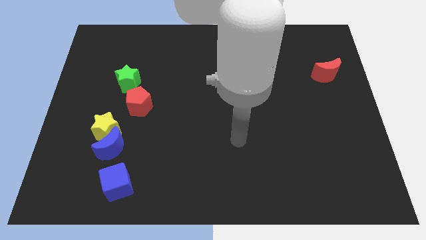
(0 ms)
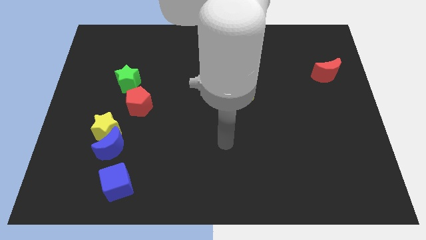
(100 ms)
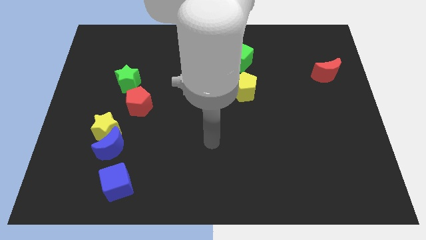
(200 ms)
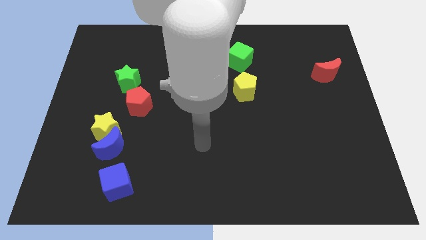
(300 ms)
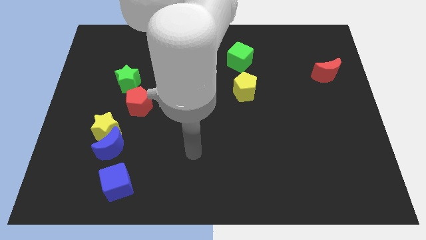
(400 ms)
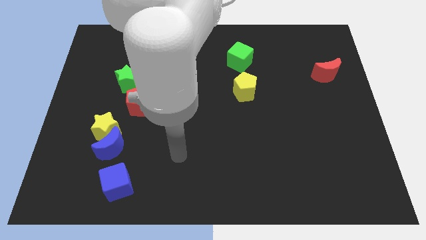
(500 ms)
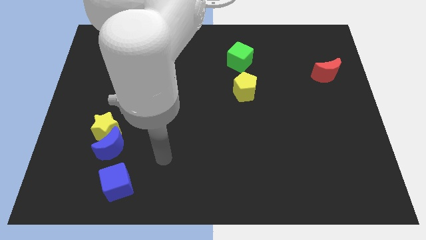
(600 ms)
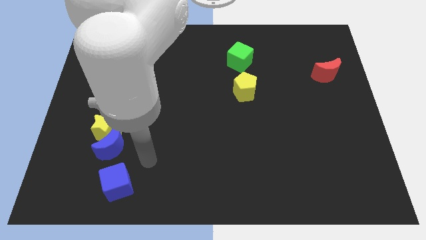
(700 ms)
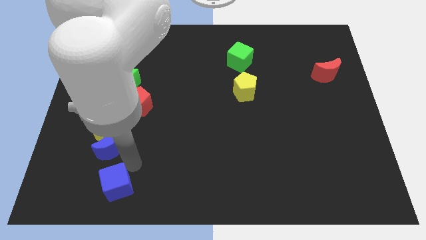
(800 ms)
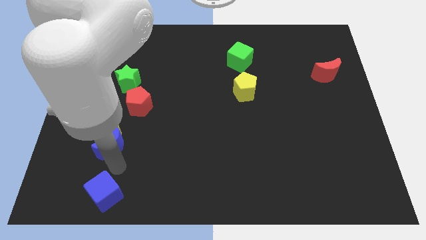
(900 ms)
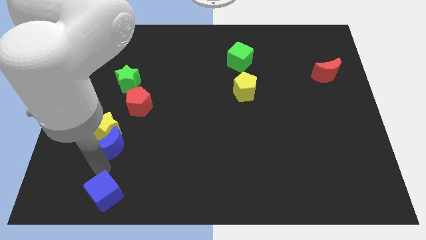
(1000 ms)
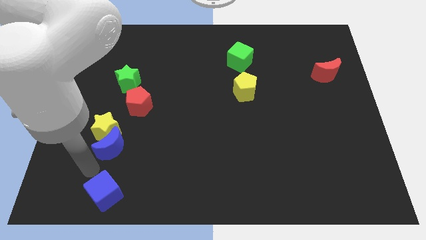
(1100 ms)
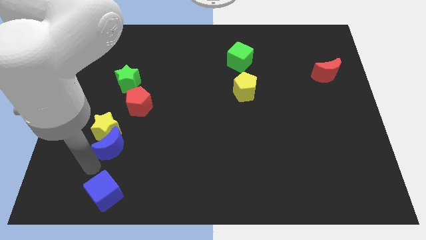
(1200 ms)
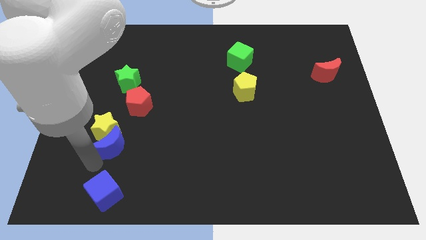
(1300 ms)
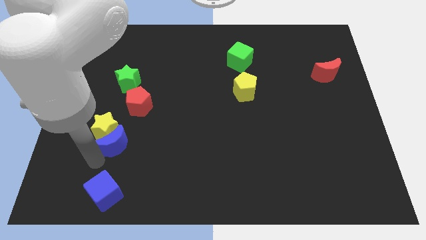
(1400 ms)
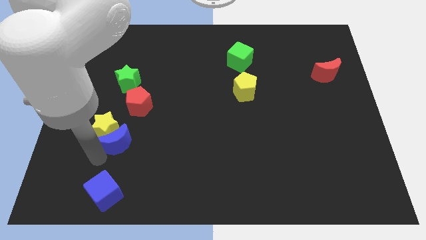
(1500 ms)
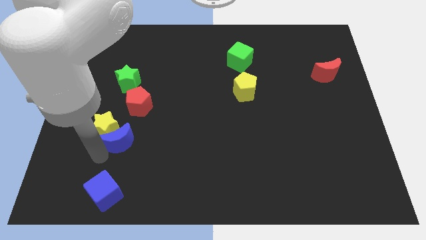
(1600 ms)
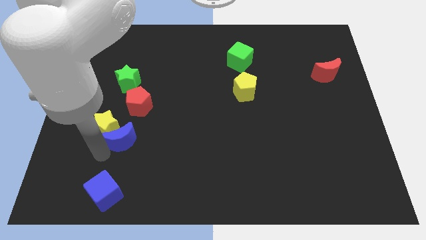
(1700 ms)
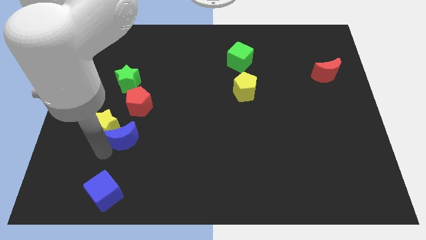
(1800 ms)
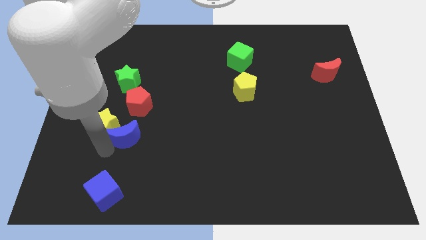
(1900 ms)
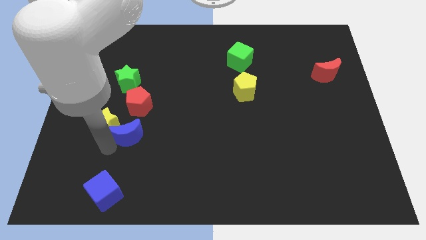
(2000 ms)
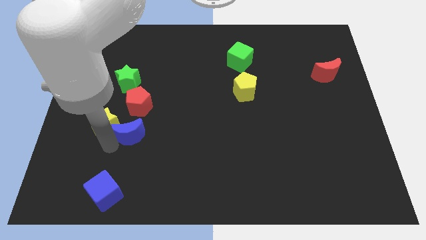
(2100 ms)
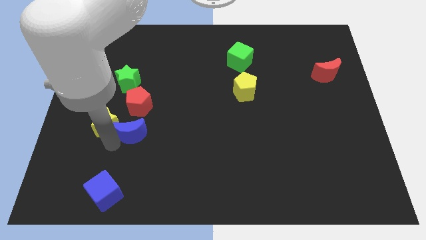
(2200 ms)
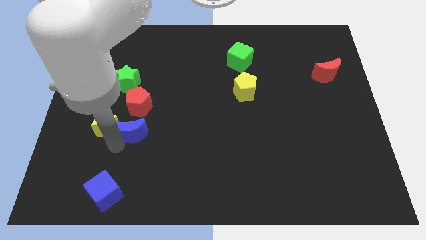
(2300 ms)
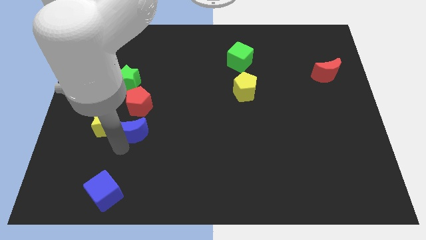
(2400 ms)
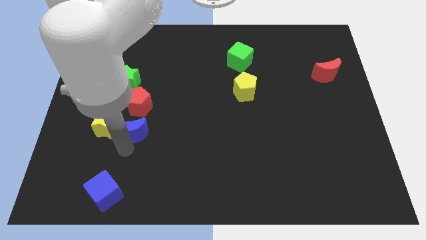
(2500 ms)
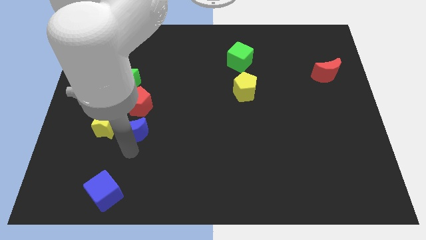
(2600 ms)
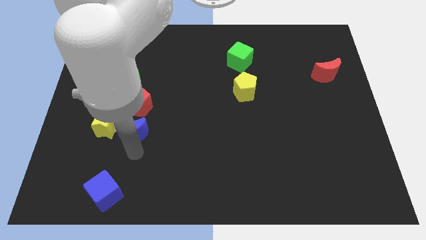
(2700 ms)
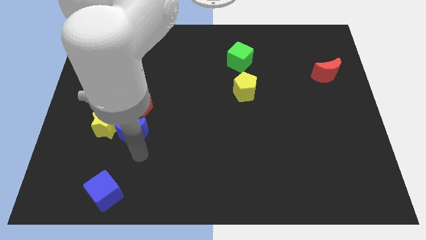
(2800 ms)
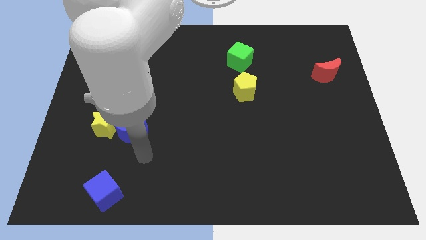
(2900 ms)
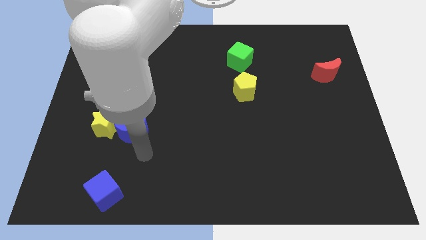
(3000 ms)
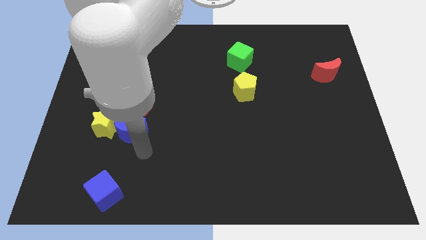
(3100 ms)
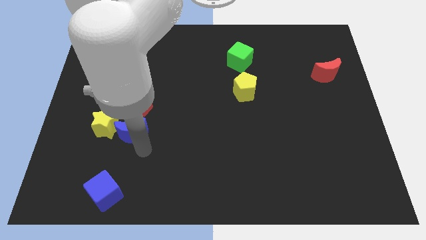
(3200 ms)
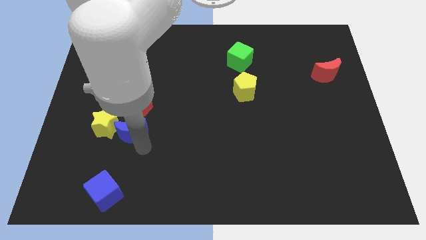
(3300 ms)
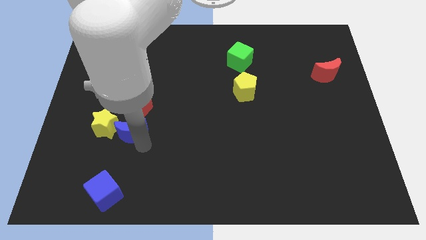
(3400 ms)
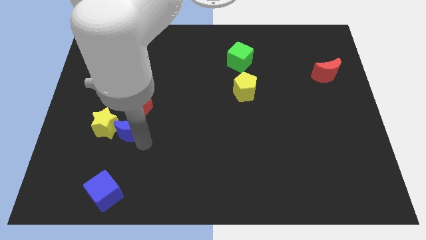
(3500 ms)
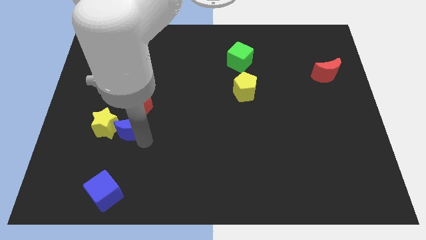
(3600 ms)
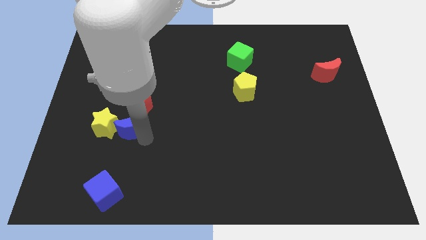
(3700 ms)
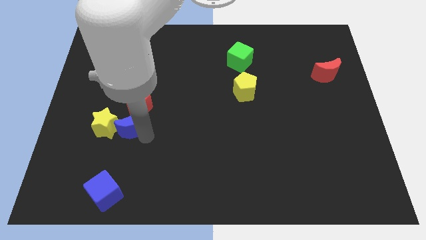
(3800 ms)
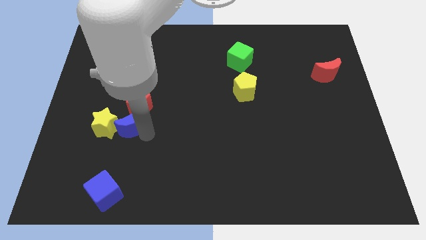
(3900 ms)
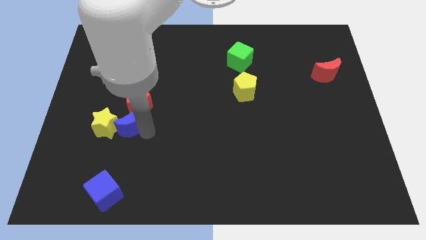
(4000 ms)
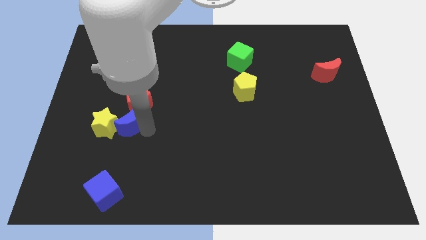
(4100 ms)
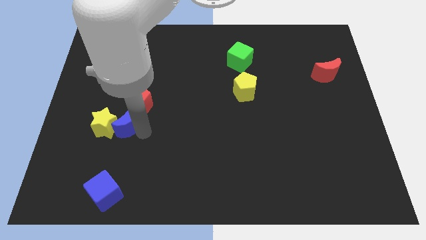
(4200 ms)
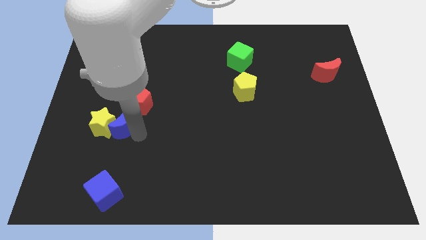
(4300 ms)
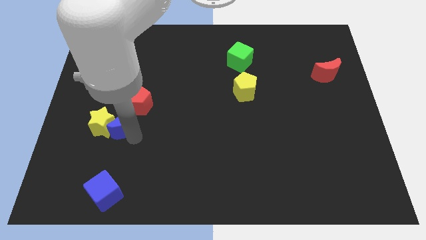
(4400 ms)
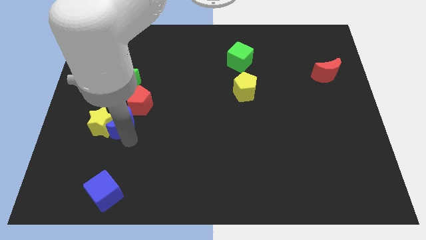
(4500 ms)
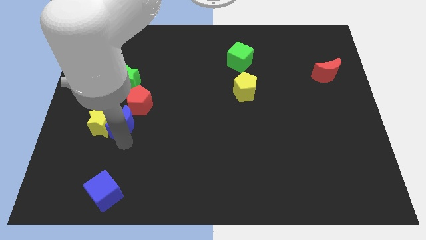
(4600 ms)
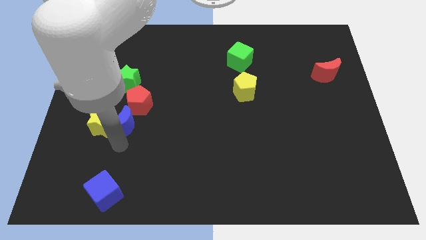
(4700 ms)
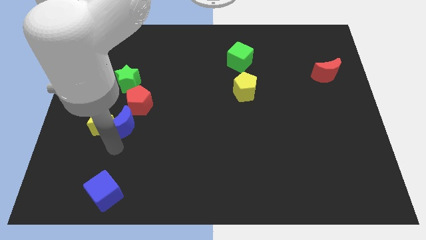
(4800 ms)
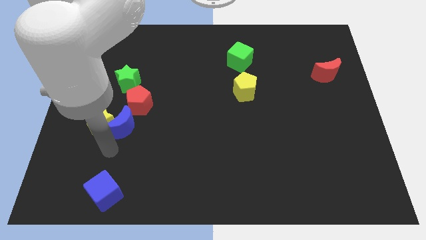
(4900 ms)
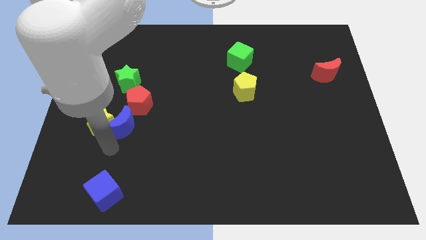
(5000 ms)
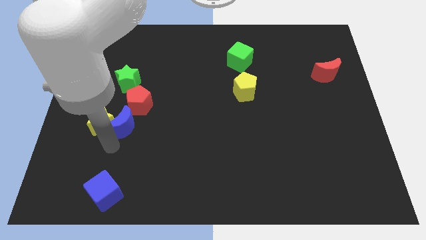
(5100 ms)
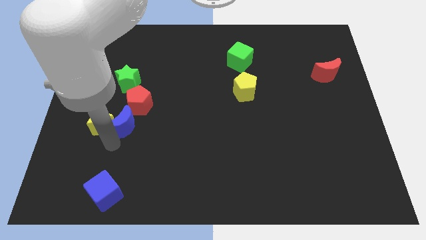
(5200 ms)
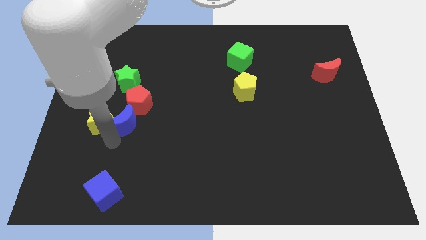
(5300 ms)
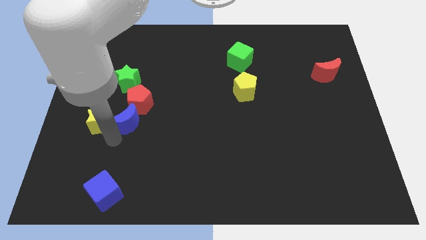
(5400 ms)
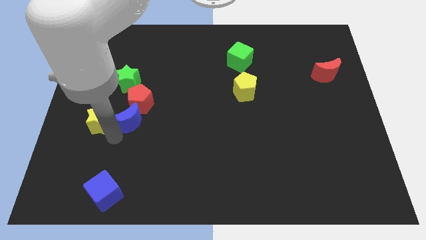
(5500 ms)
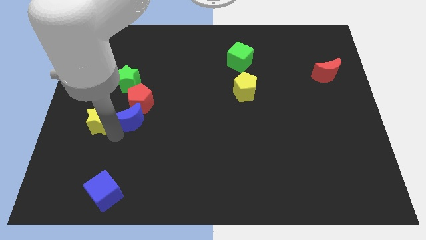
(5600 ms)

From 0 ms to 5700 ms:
pull the blue moon apart from the yellow star and blue cube

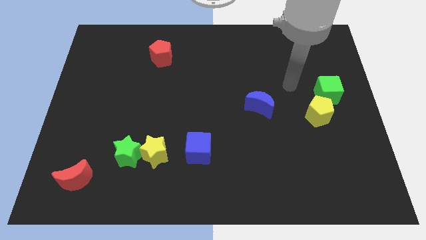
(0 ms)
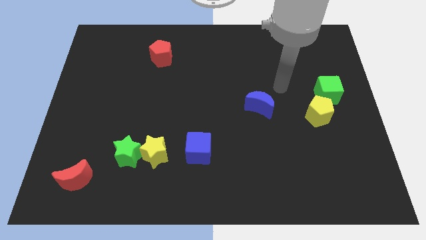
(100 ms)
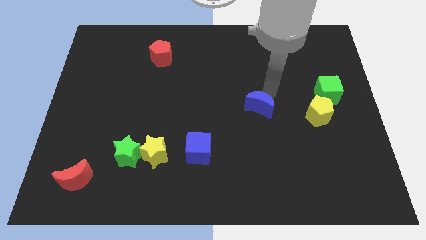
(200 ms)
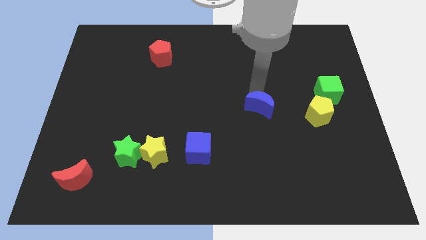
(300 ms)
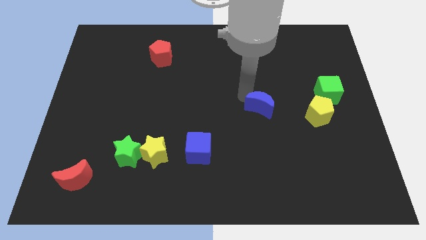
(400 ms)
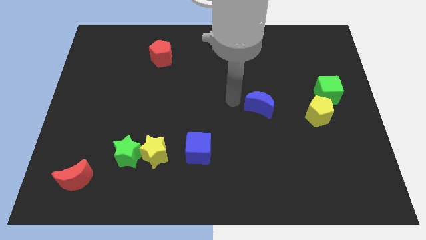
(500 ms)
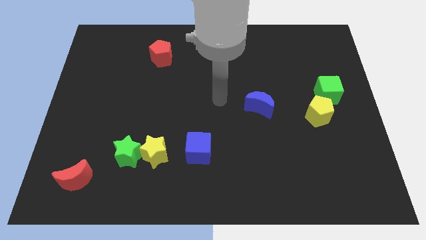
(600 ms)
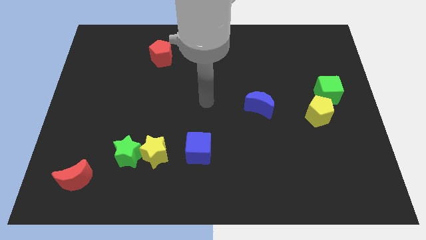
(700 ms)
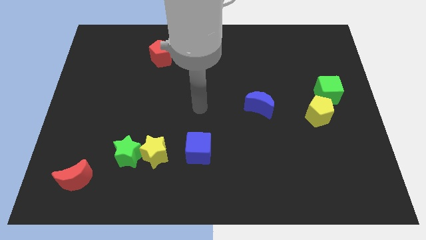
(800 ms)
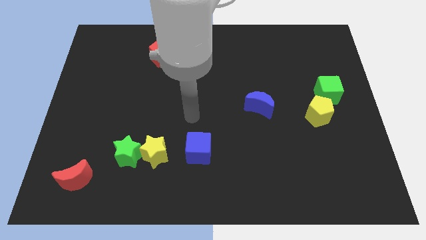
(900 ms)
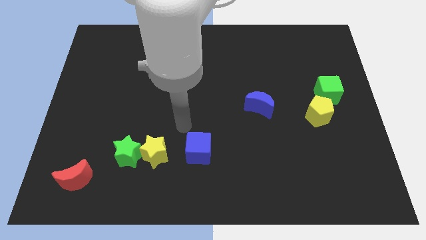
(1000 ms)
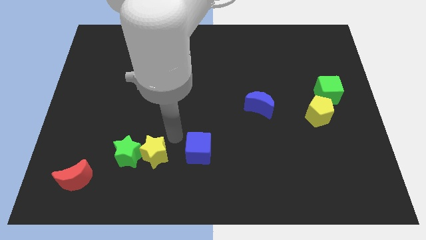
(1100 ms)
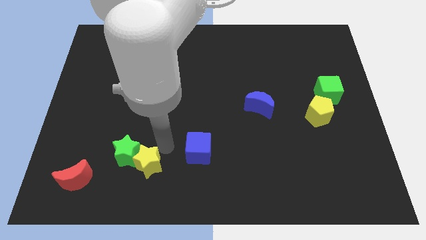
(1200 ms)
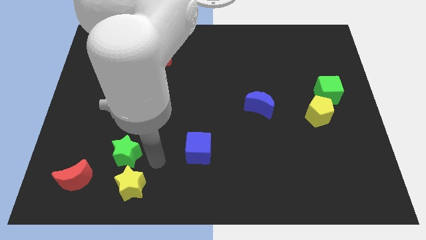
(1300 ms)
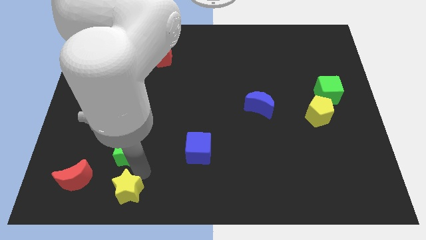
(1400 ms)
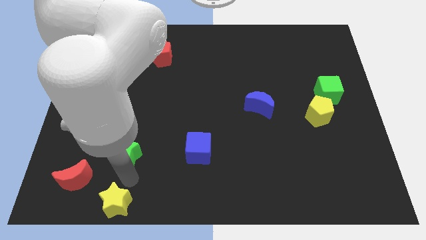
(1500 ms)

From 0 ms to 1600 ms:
move the green star away from the yellow star

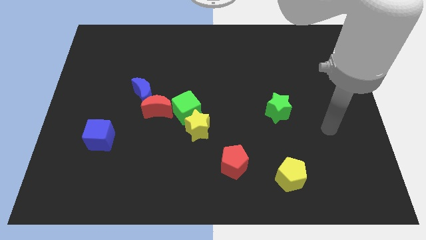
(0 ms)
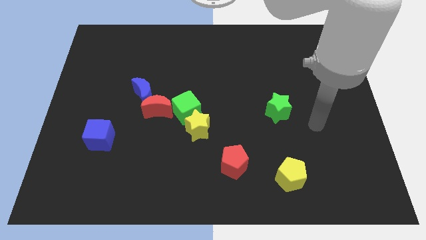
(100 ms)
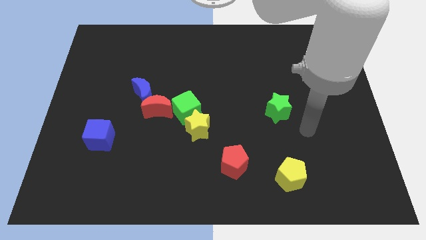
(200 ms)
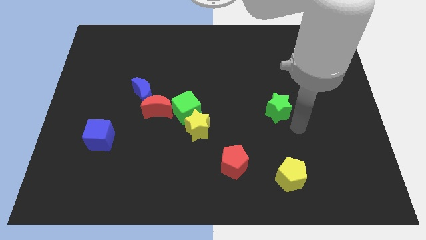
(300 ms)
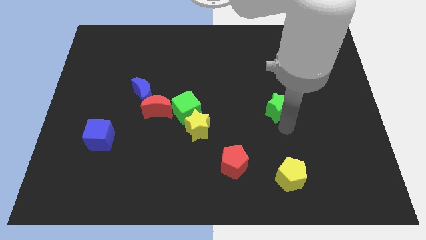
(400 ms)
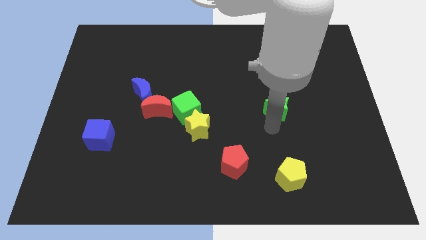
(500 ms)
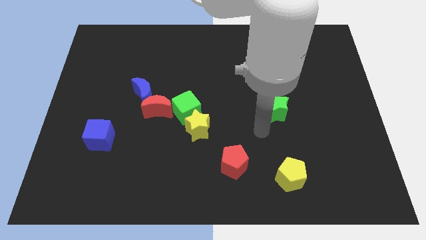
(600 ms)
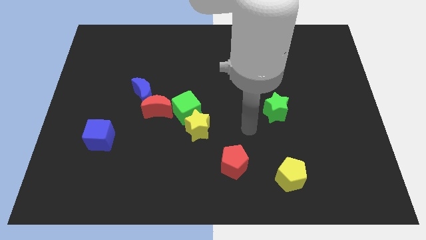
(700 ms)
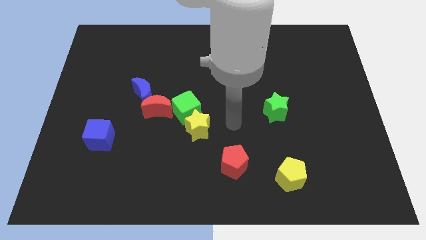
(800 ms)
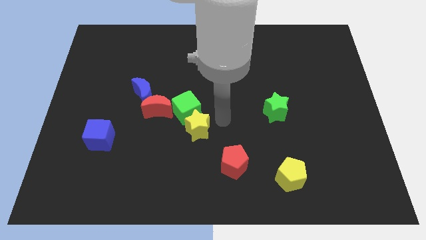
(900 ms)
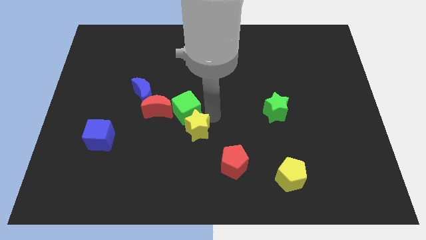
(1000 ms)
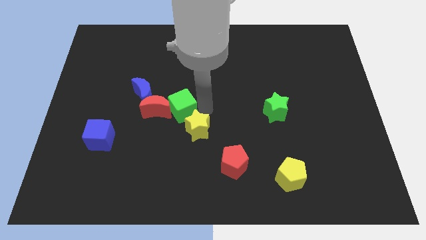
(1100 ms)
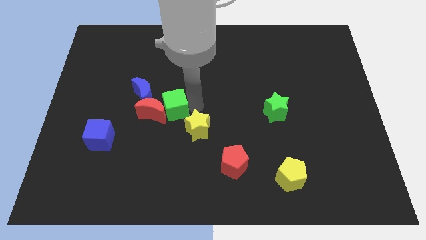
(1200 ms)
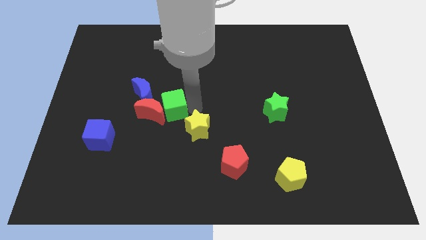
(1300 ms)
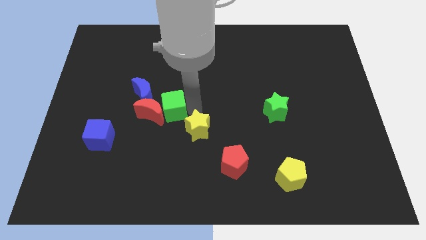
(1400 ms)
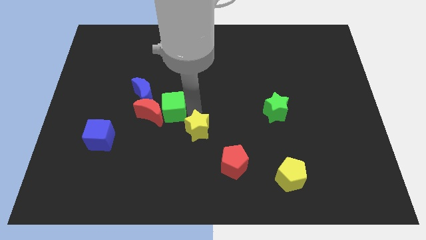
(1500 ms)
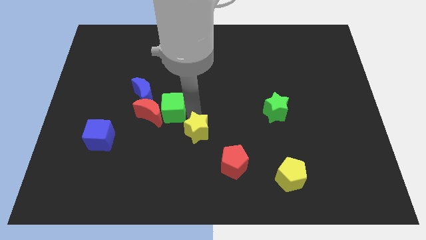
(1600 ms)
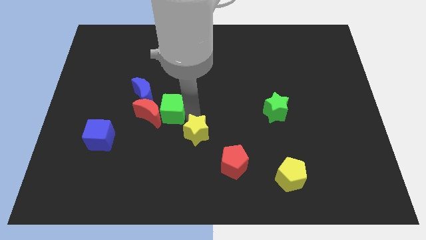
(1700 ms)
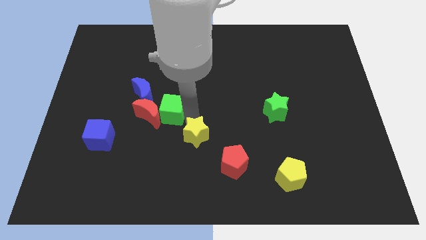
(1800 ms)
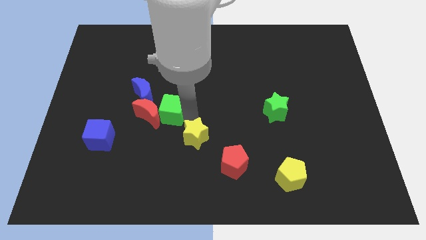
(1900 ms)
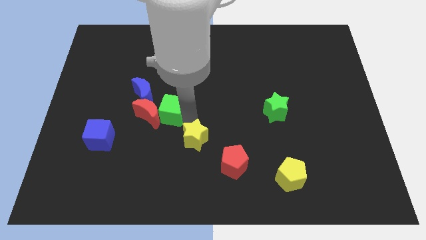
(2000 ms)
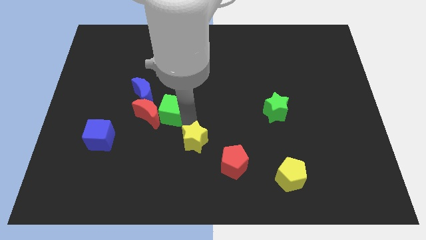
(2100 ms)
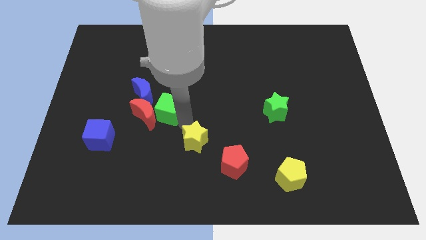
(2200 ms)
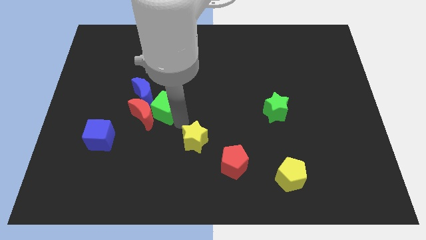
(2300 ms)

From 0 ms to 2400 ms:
move the yellow star away from the green cube
